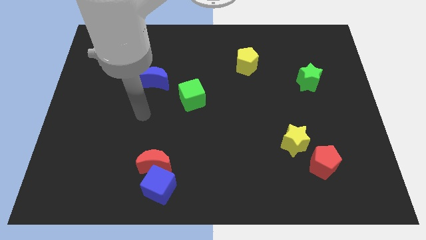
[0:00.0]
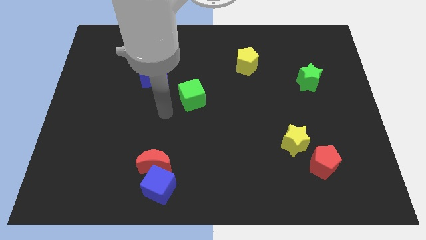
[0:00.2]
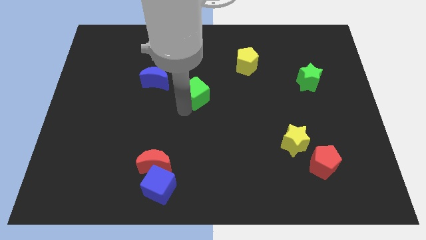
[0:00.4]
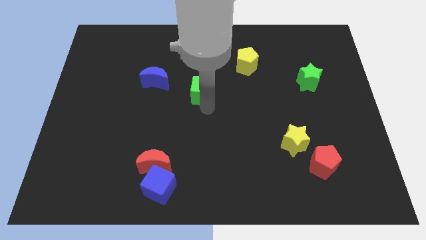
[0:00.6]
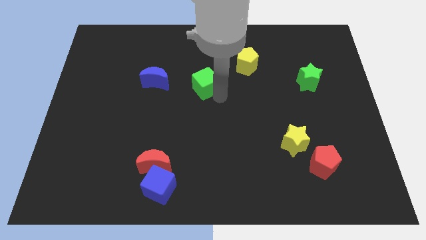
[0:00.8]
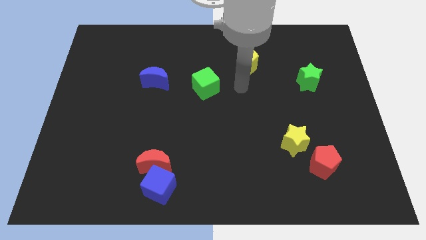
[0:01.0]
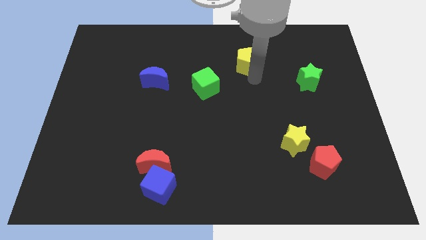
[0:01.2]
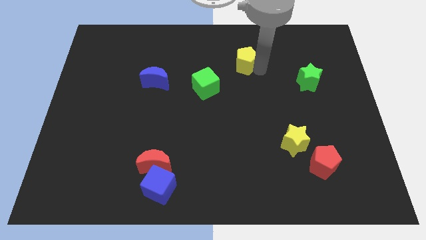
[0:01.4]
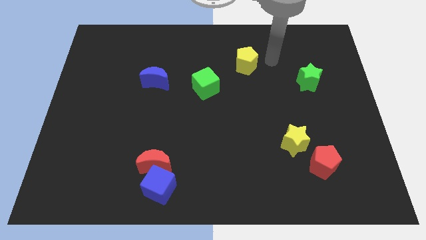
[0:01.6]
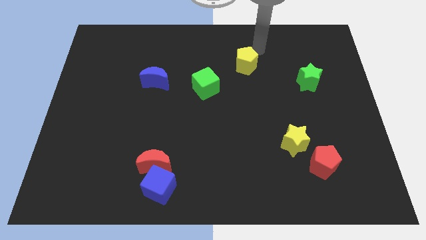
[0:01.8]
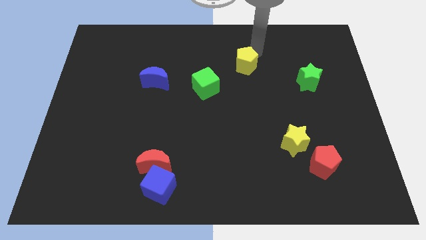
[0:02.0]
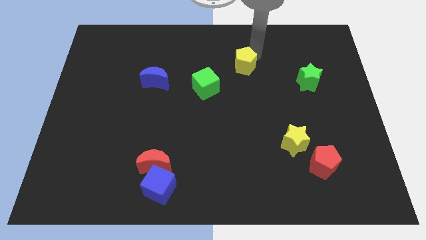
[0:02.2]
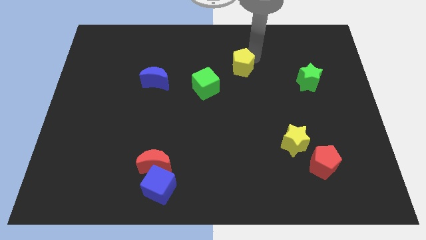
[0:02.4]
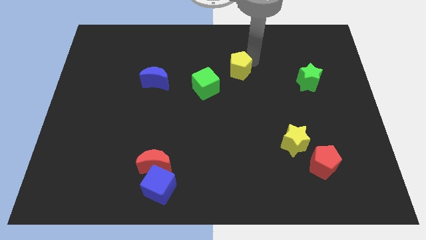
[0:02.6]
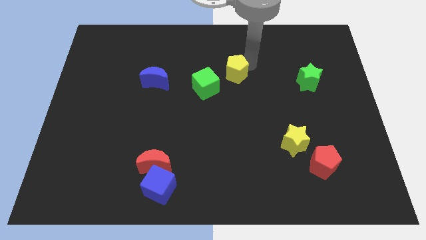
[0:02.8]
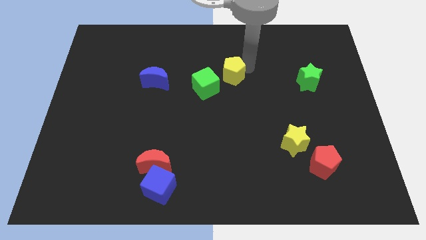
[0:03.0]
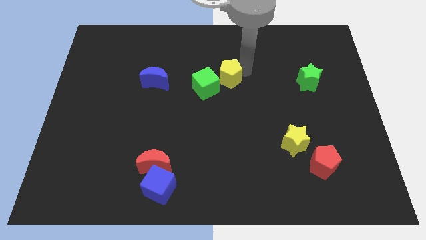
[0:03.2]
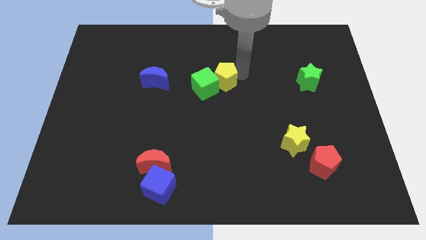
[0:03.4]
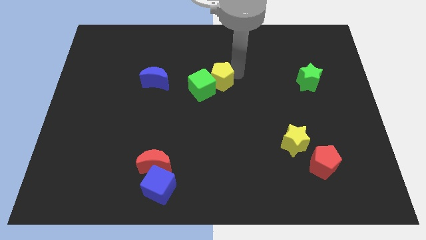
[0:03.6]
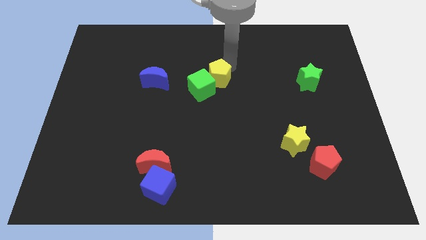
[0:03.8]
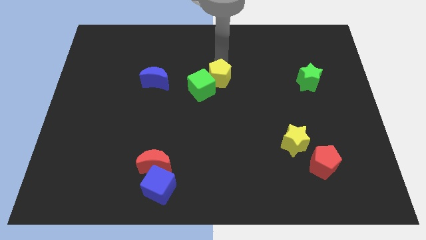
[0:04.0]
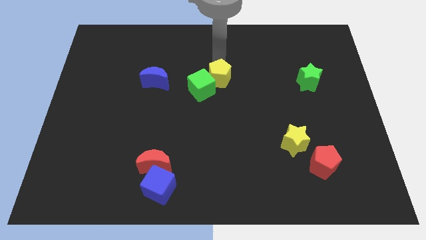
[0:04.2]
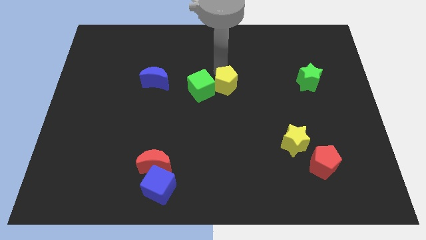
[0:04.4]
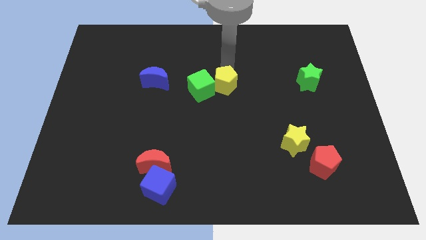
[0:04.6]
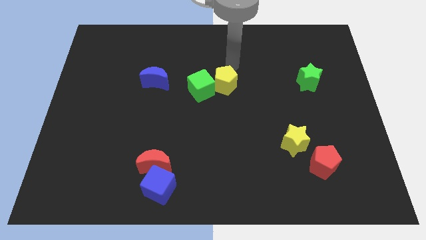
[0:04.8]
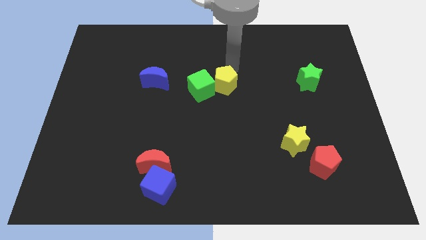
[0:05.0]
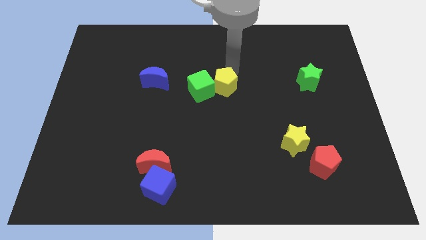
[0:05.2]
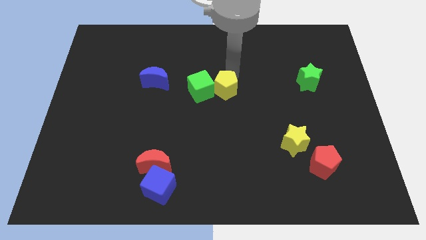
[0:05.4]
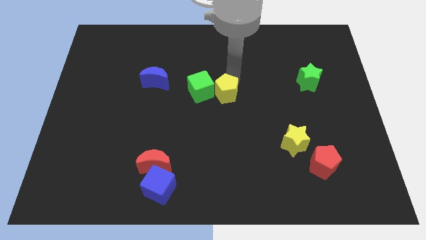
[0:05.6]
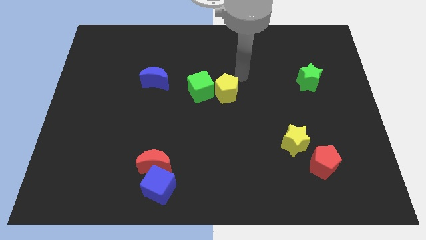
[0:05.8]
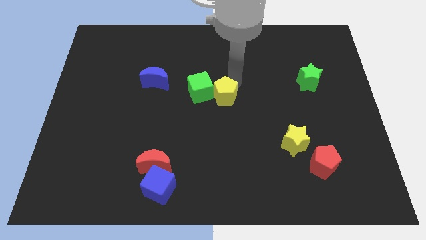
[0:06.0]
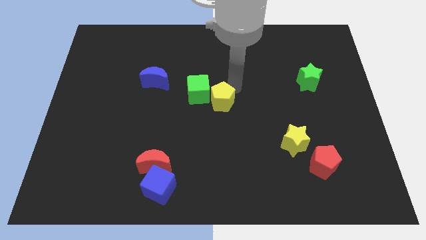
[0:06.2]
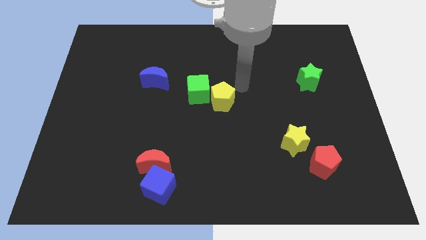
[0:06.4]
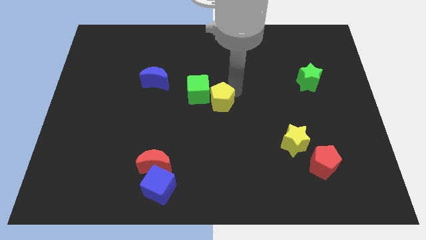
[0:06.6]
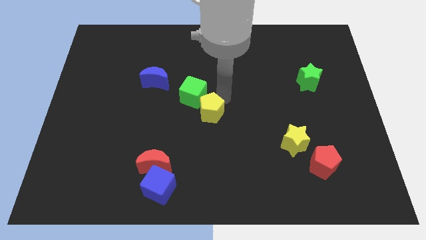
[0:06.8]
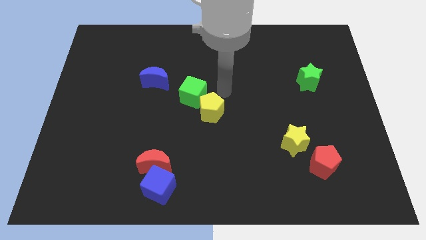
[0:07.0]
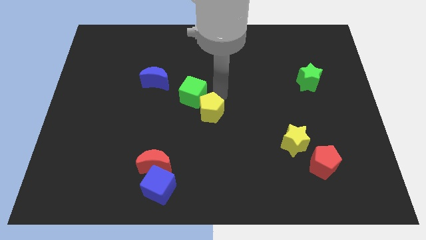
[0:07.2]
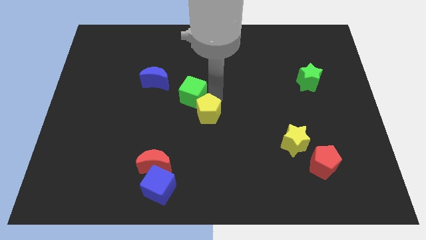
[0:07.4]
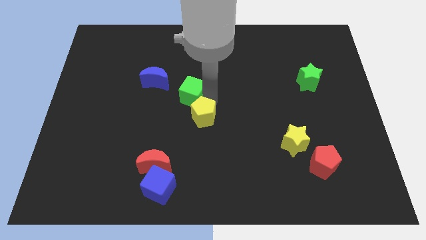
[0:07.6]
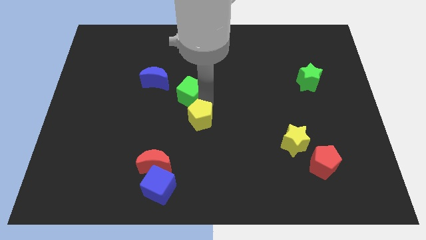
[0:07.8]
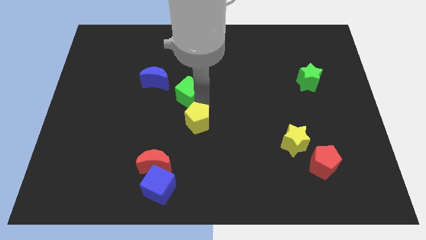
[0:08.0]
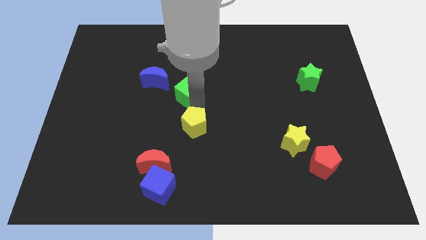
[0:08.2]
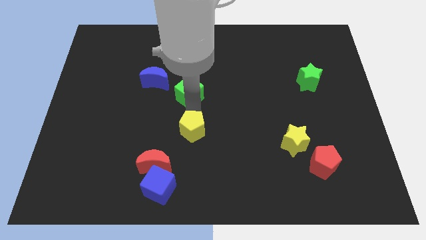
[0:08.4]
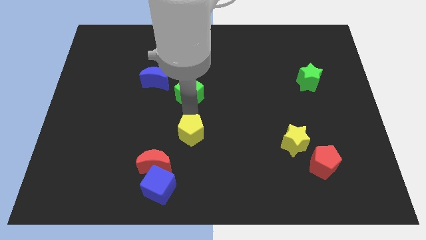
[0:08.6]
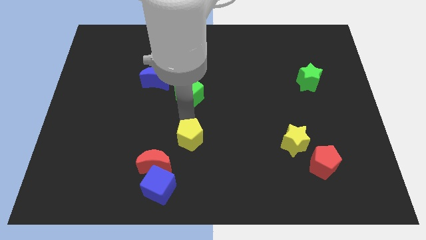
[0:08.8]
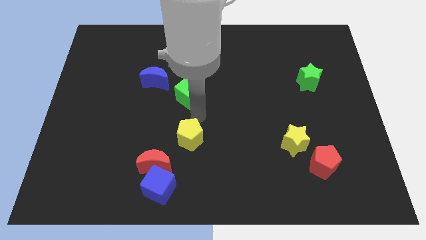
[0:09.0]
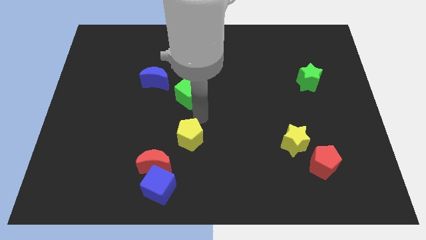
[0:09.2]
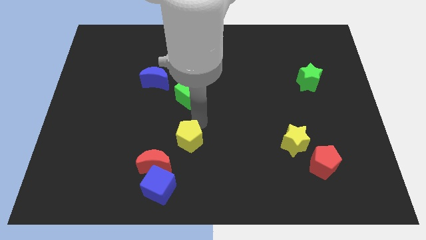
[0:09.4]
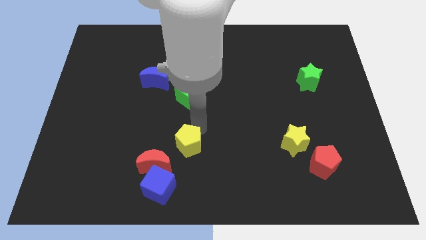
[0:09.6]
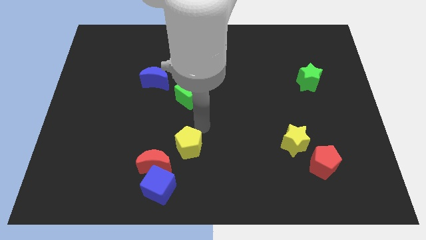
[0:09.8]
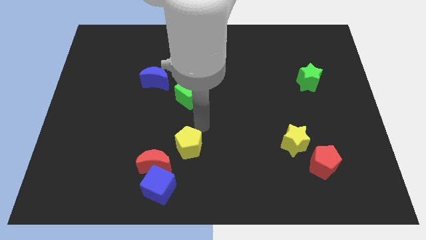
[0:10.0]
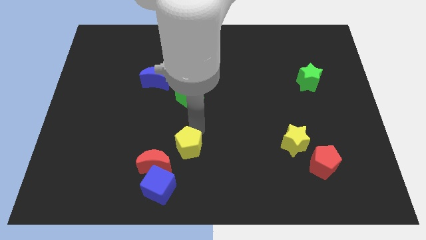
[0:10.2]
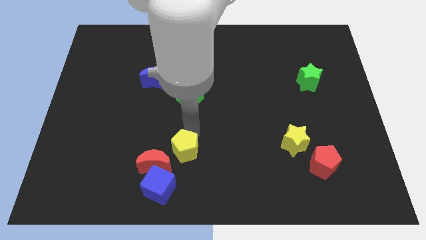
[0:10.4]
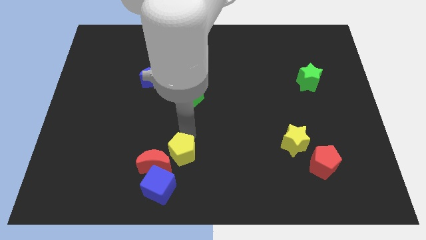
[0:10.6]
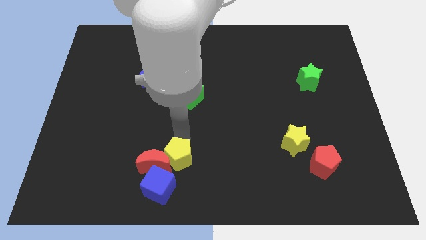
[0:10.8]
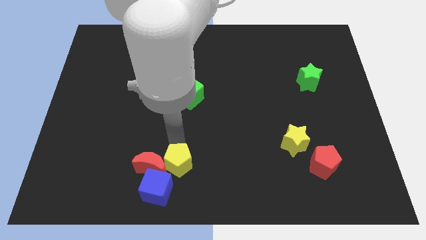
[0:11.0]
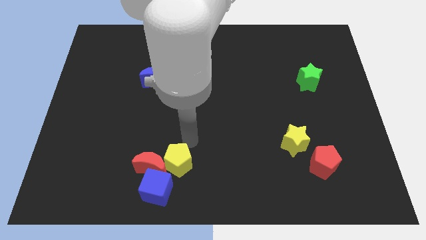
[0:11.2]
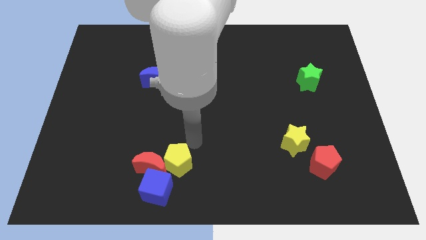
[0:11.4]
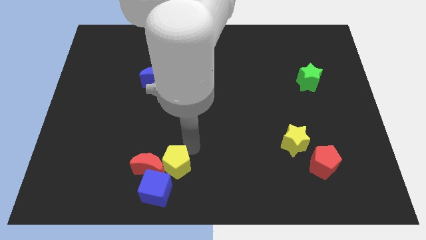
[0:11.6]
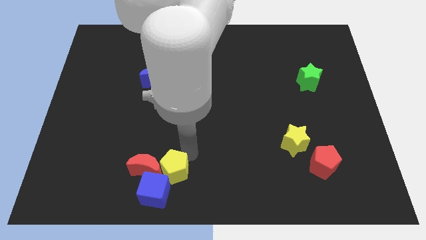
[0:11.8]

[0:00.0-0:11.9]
slide the yellow pentagon close to the blue cube

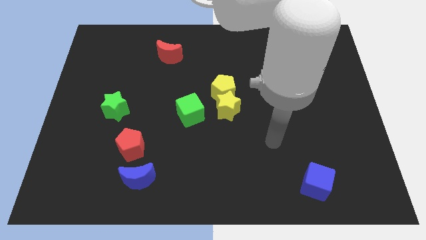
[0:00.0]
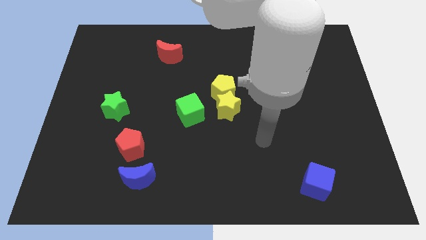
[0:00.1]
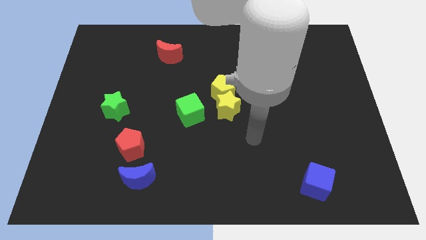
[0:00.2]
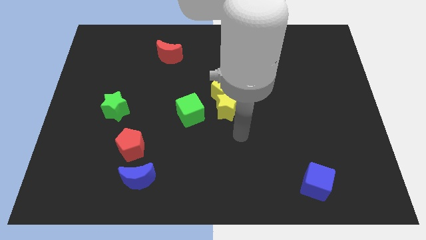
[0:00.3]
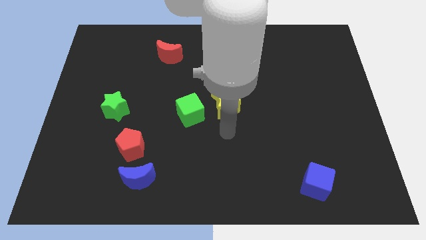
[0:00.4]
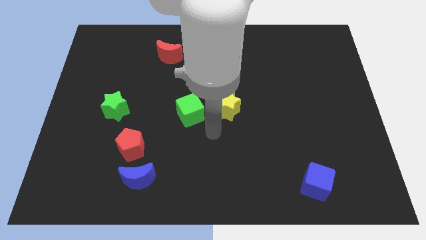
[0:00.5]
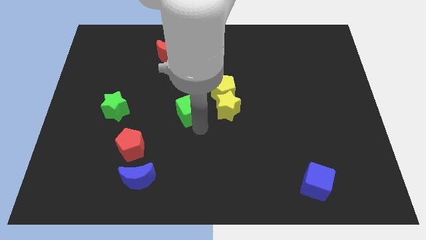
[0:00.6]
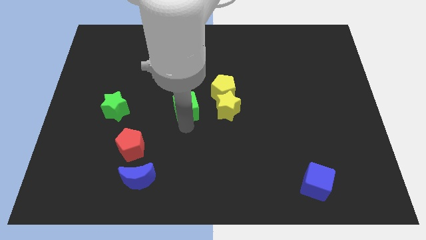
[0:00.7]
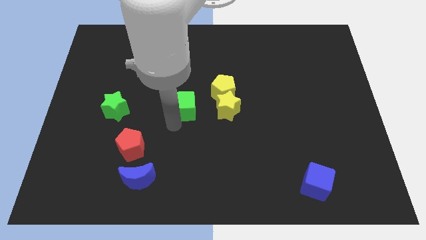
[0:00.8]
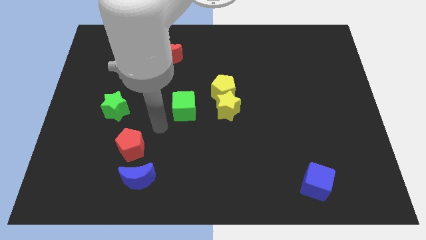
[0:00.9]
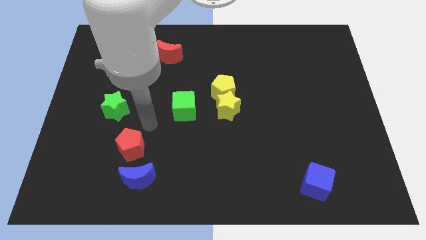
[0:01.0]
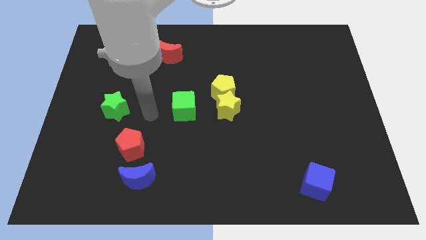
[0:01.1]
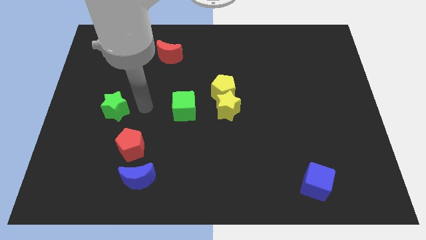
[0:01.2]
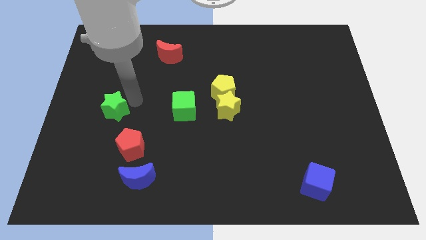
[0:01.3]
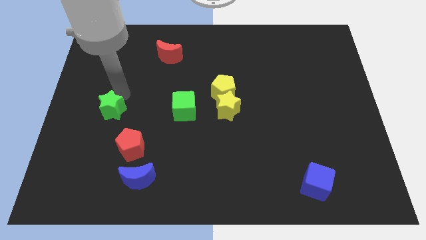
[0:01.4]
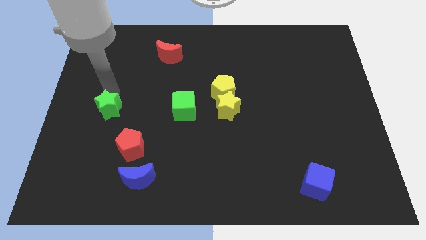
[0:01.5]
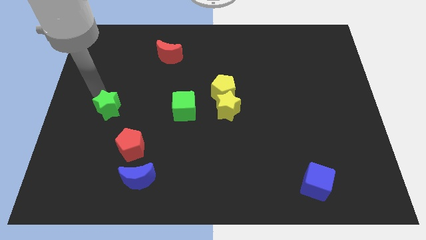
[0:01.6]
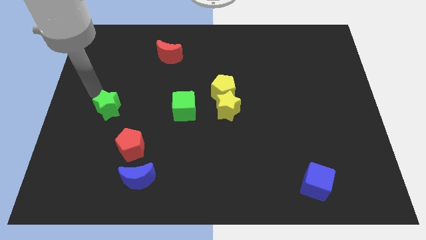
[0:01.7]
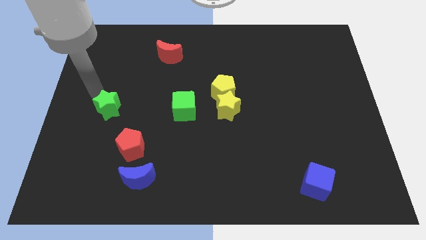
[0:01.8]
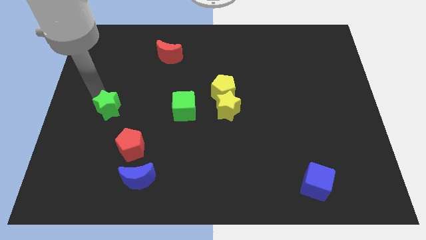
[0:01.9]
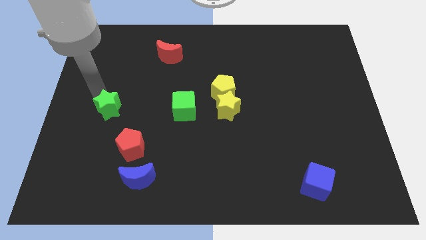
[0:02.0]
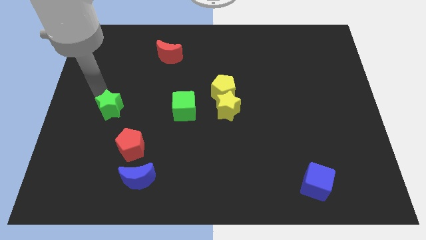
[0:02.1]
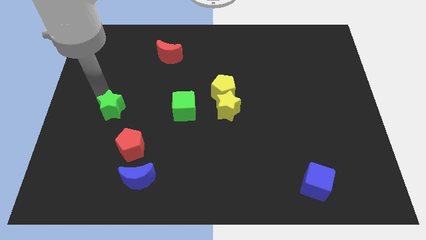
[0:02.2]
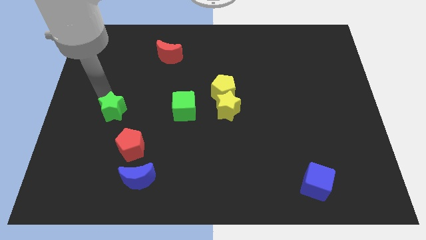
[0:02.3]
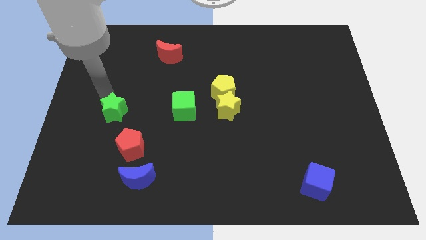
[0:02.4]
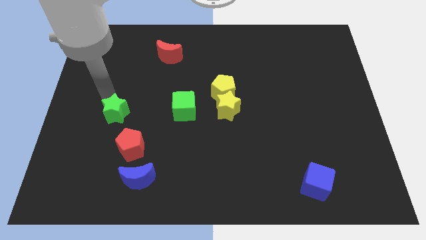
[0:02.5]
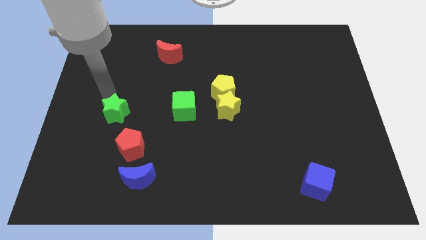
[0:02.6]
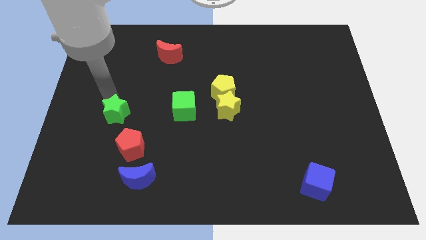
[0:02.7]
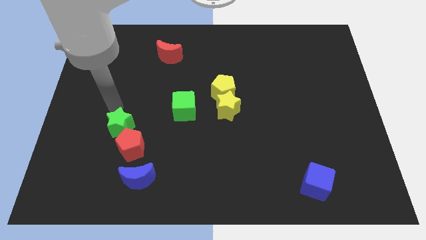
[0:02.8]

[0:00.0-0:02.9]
slide the green star to the red pentagon
